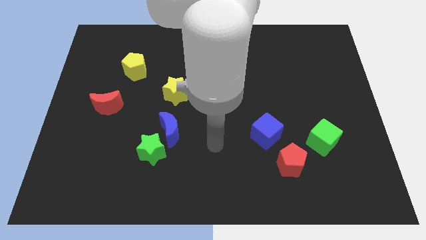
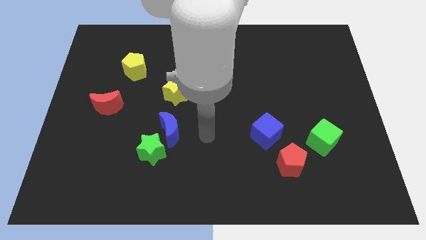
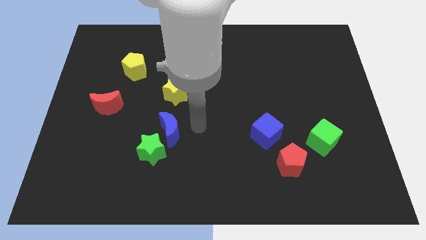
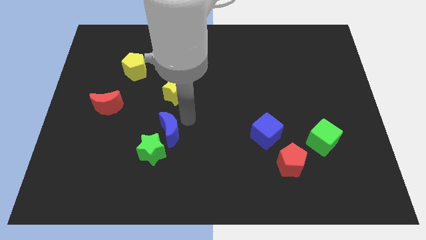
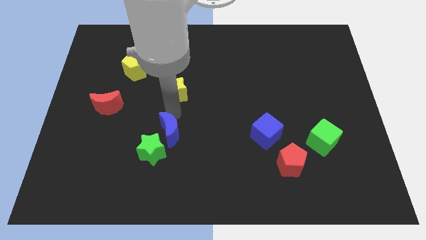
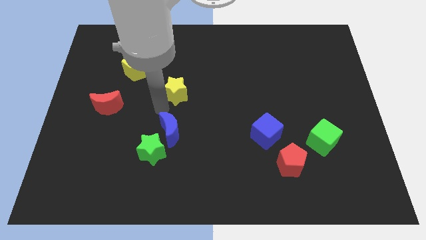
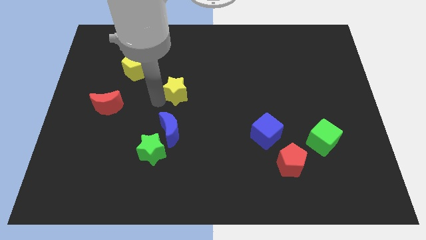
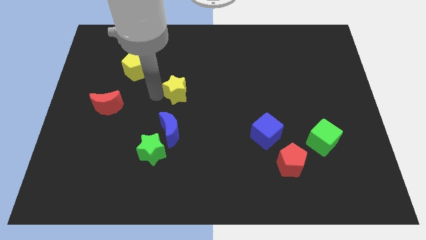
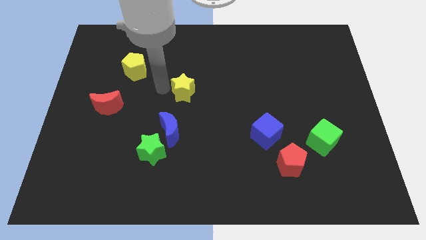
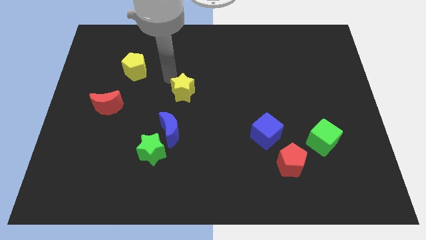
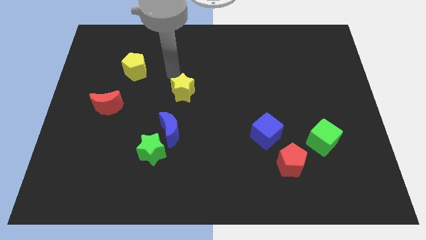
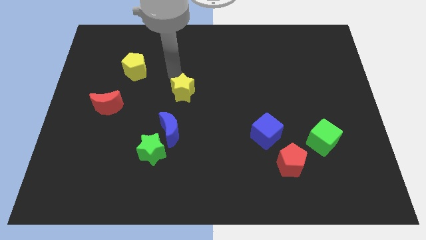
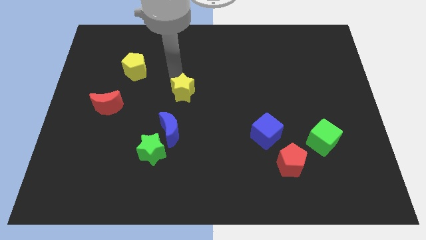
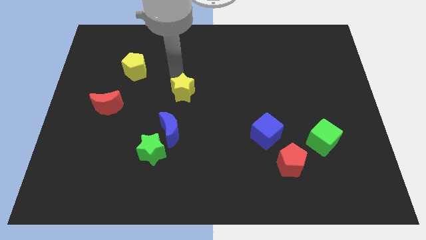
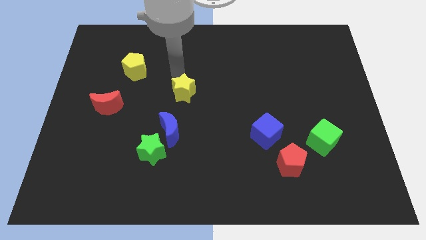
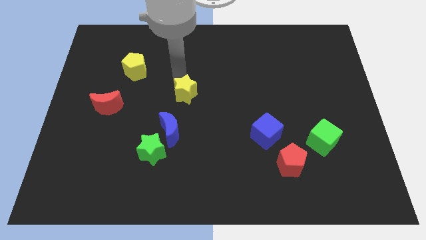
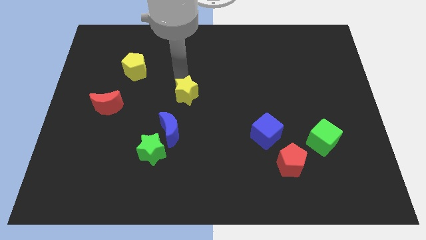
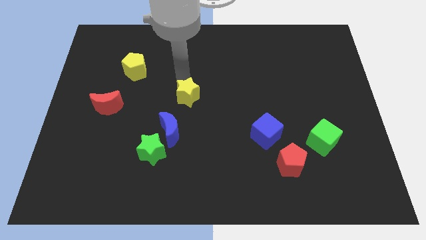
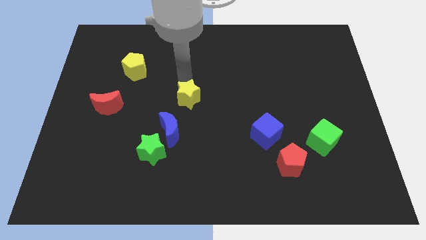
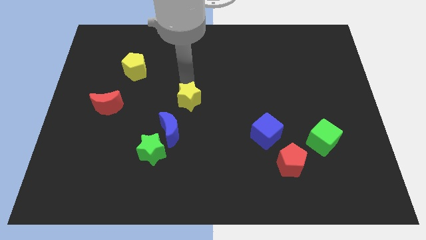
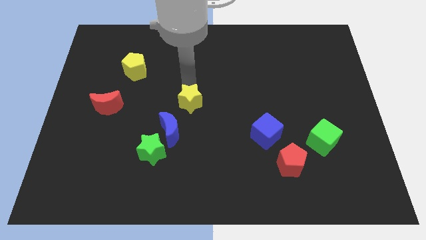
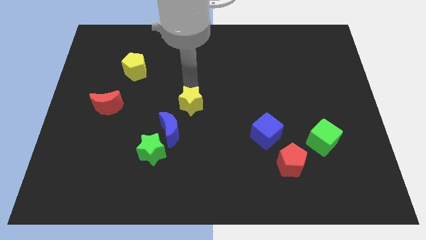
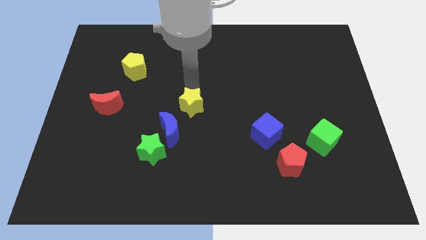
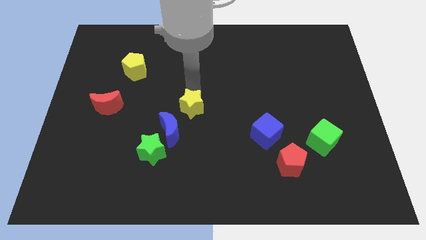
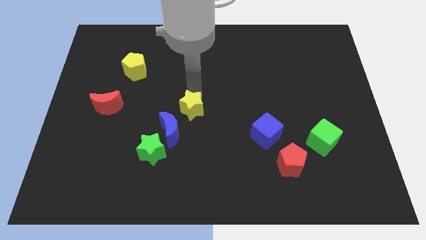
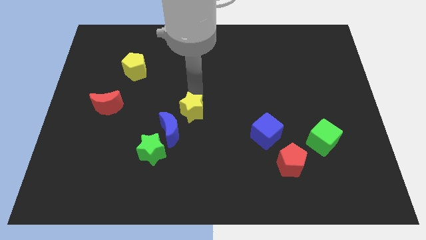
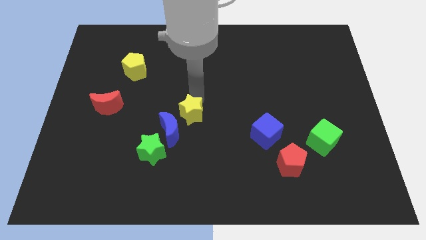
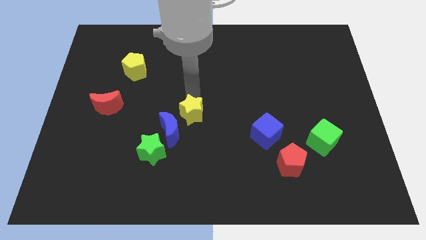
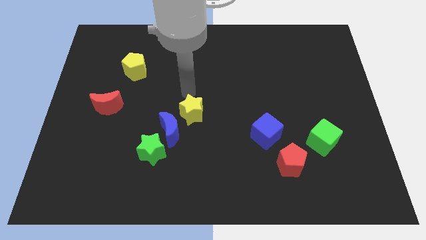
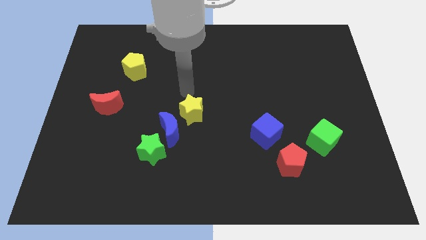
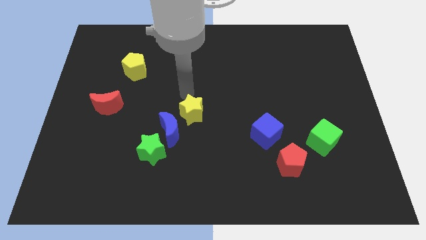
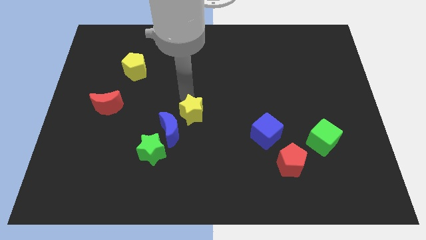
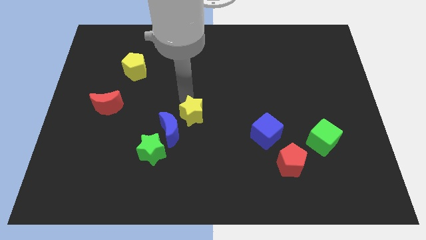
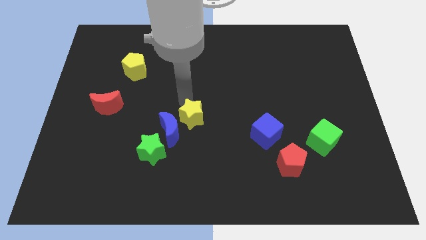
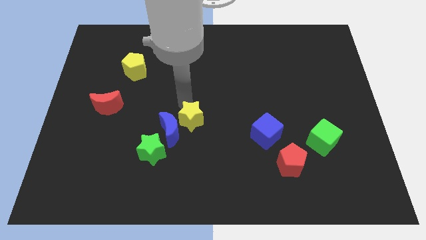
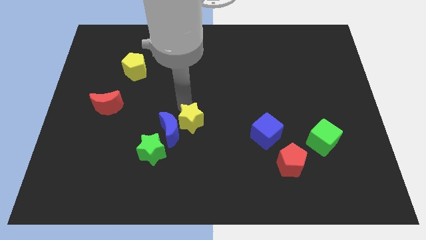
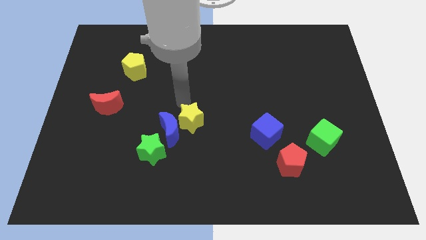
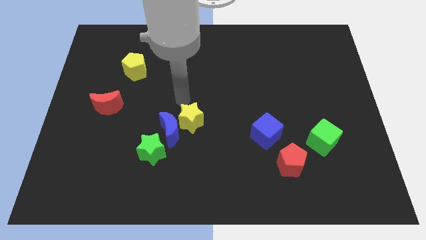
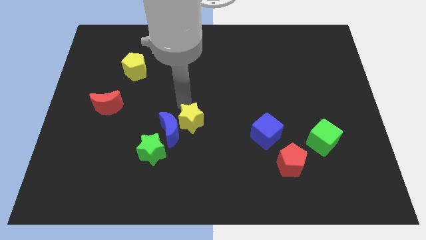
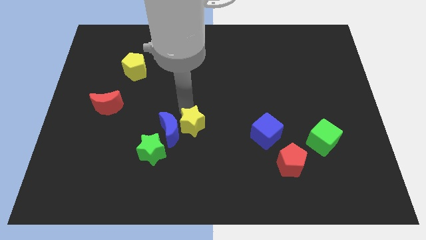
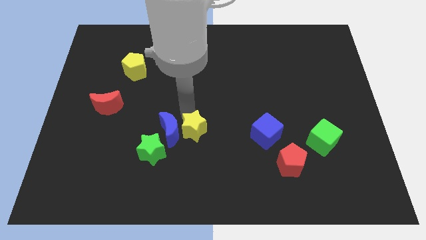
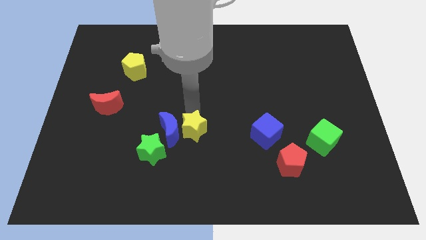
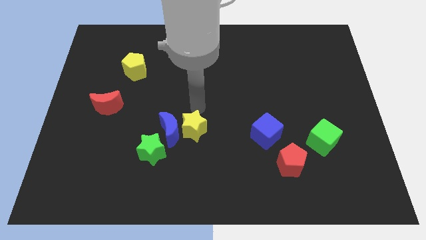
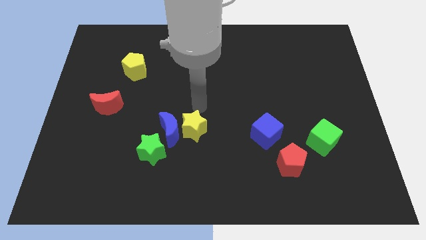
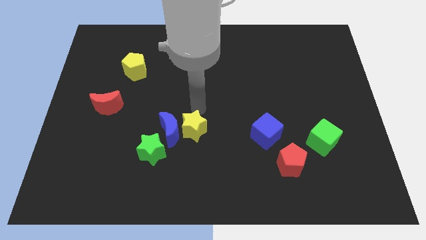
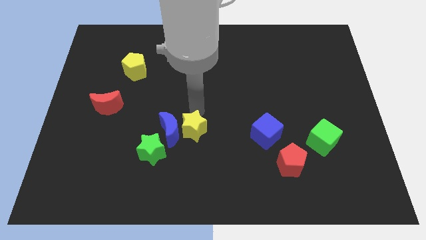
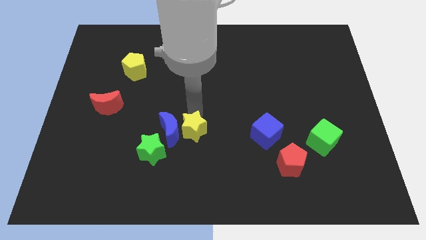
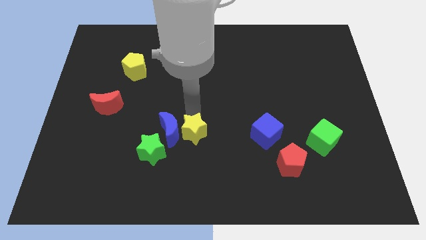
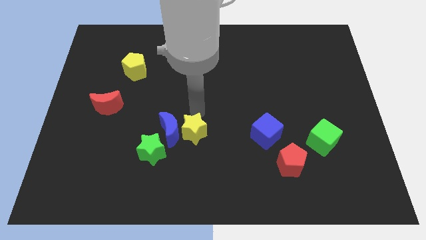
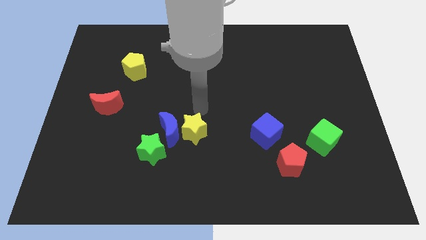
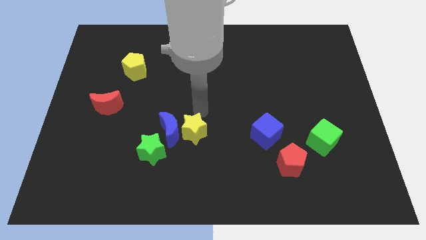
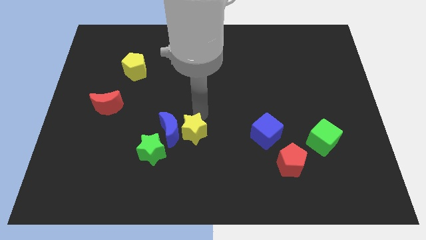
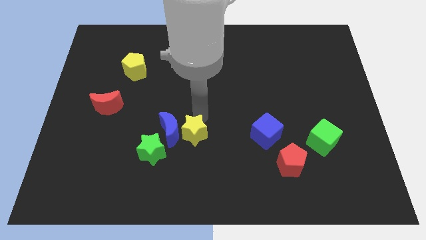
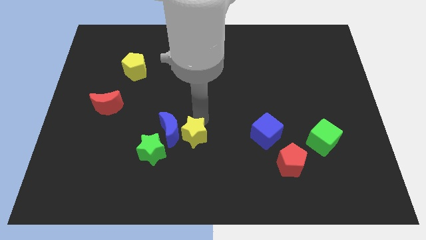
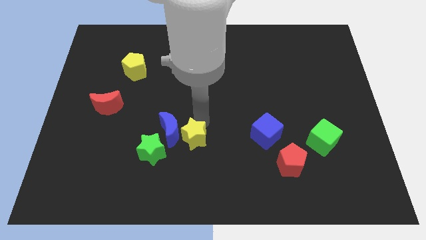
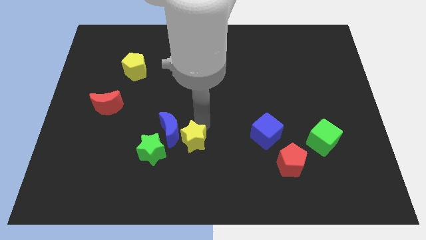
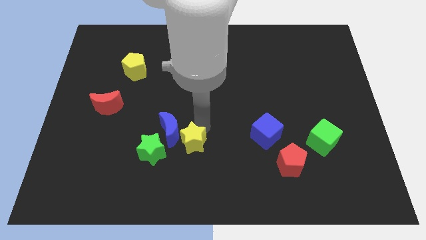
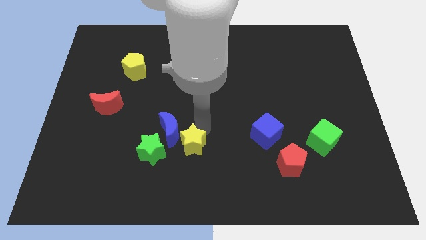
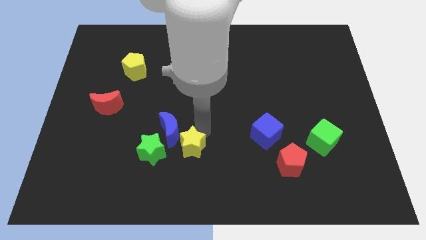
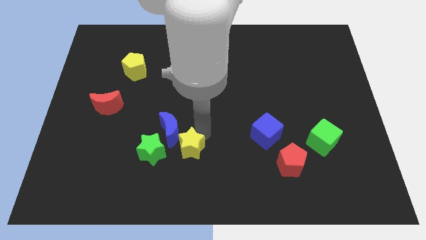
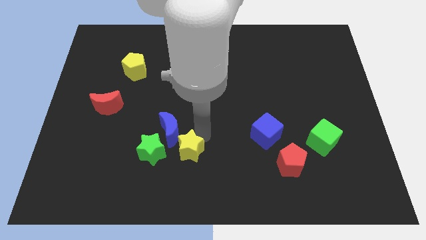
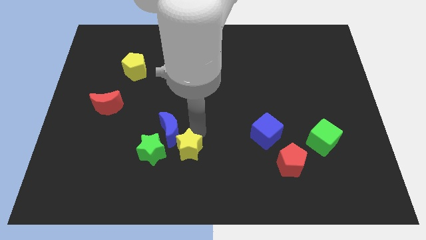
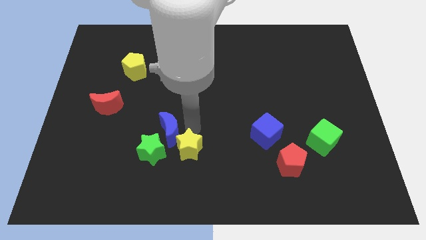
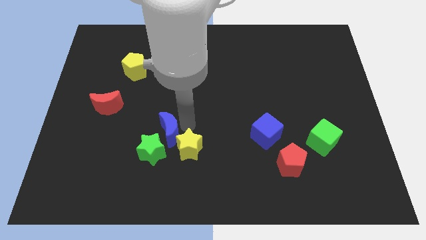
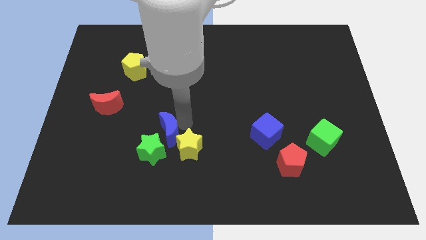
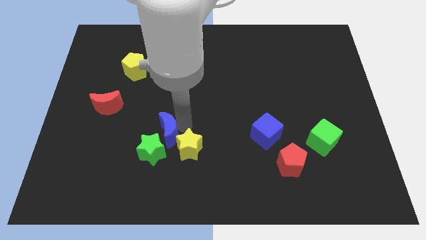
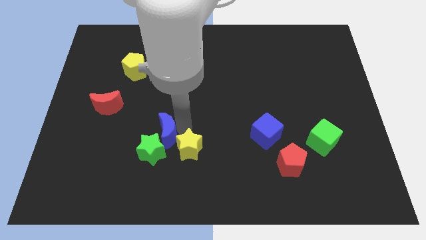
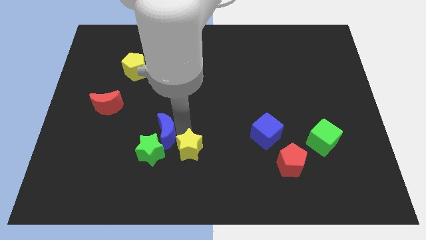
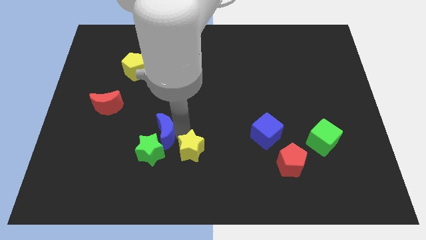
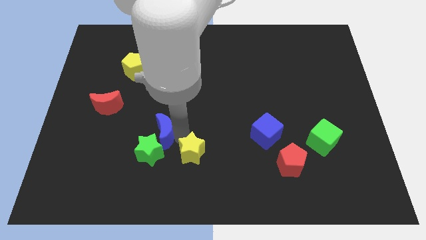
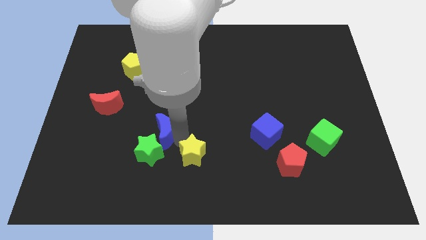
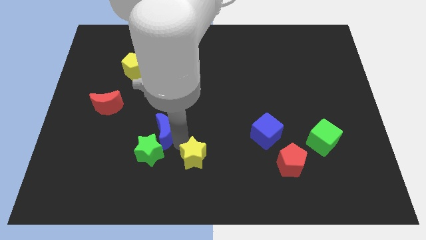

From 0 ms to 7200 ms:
move the yellow star to the bottom
